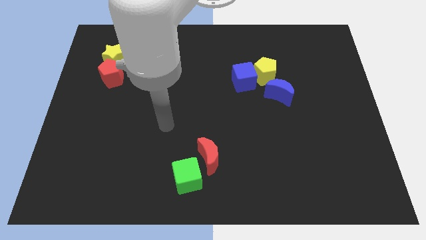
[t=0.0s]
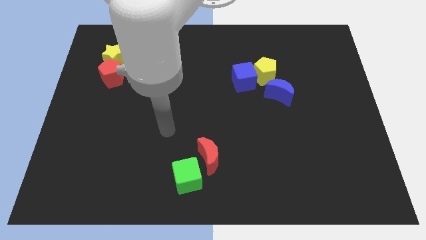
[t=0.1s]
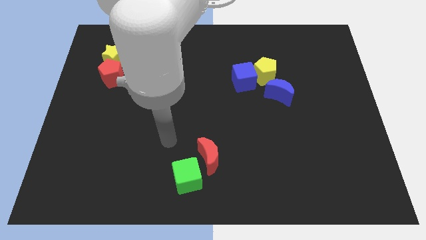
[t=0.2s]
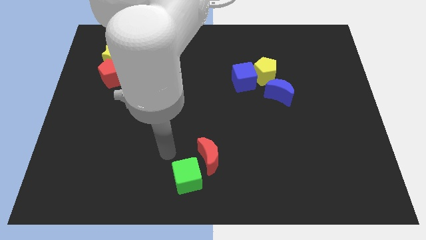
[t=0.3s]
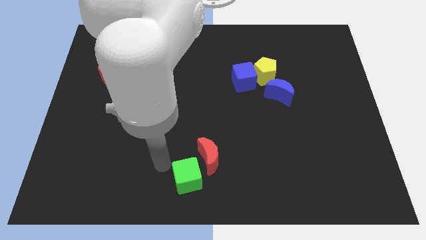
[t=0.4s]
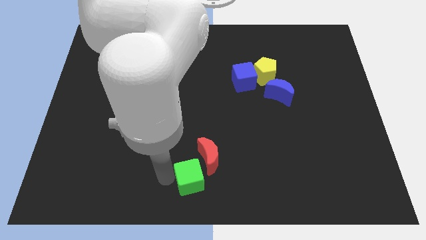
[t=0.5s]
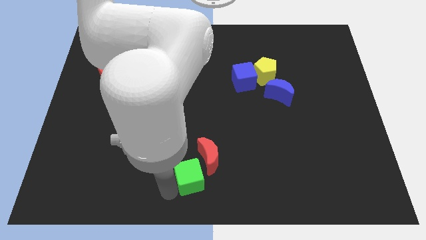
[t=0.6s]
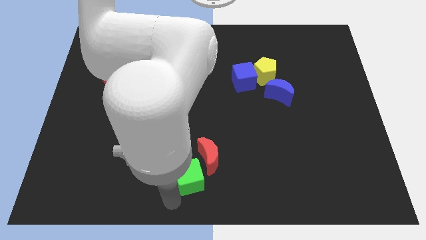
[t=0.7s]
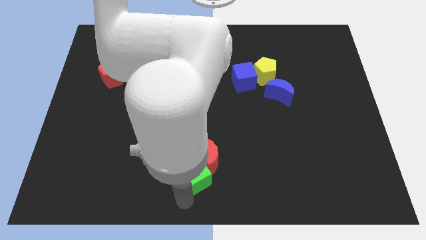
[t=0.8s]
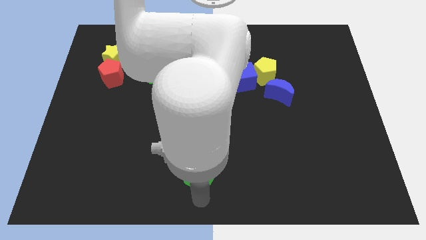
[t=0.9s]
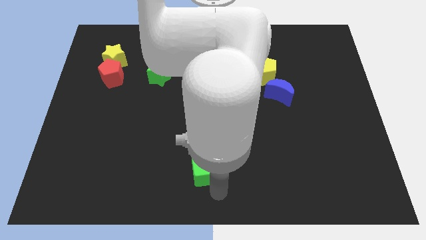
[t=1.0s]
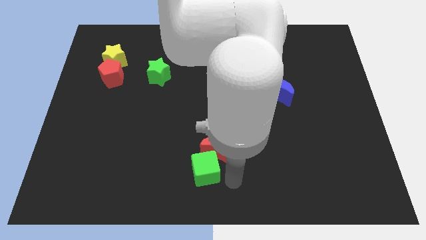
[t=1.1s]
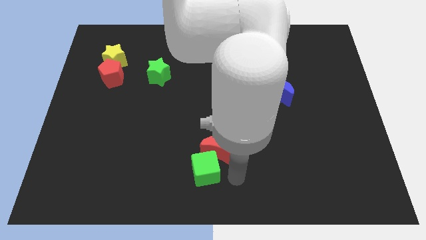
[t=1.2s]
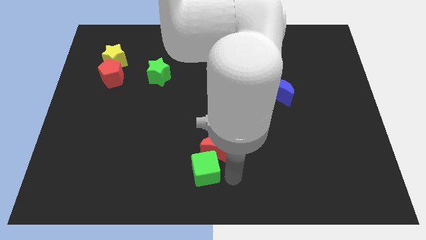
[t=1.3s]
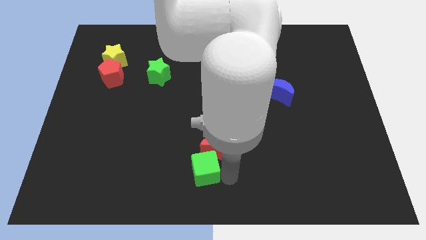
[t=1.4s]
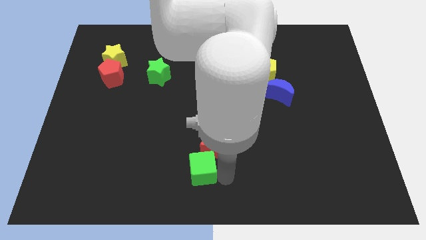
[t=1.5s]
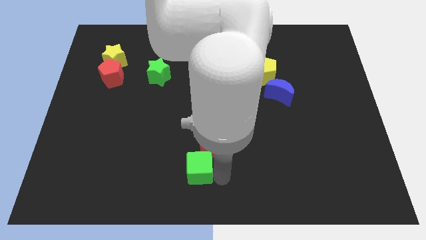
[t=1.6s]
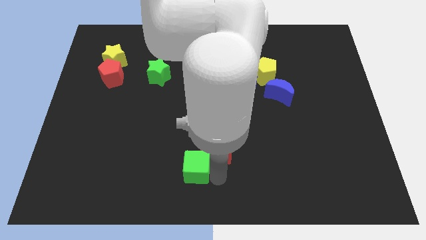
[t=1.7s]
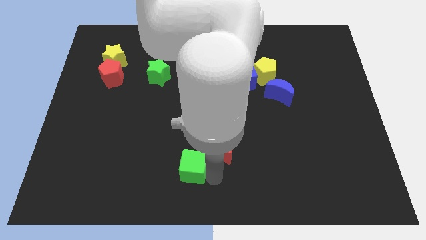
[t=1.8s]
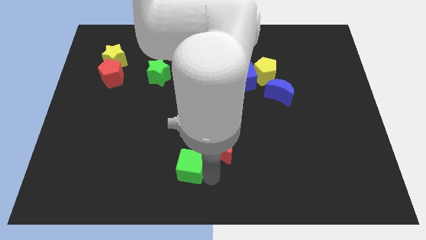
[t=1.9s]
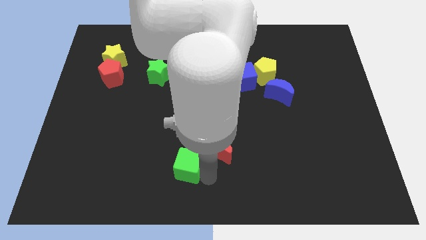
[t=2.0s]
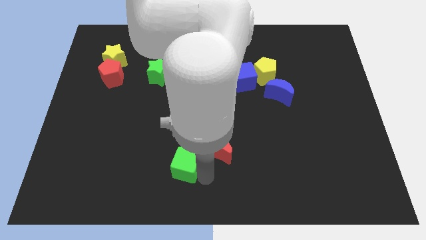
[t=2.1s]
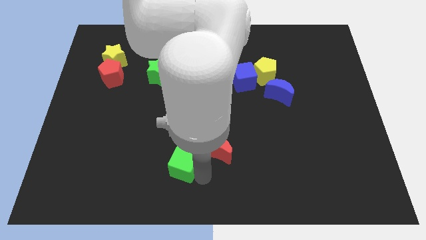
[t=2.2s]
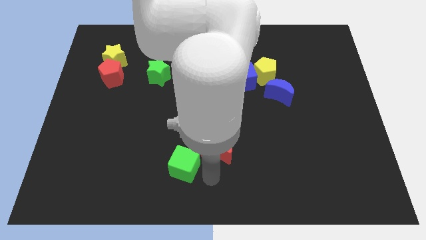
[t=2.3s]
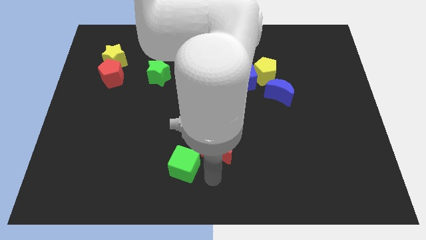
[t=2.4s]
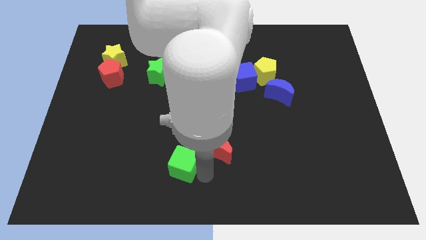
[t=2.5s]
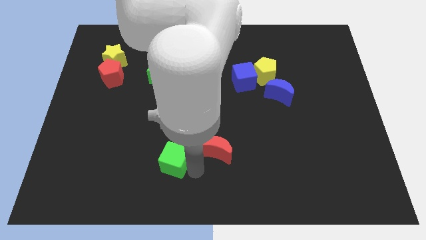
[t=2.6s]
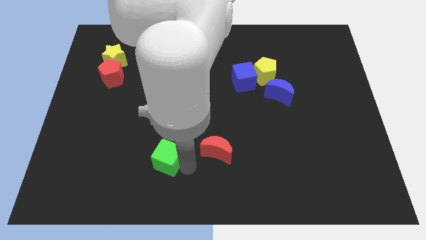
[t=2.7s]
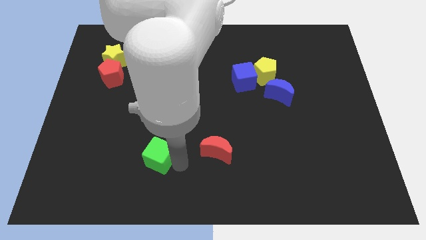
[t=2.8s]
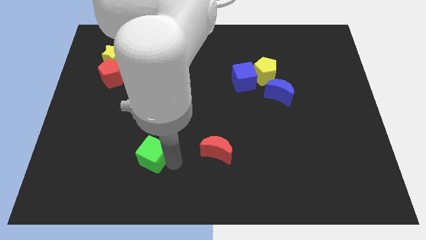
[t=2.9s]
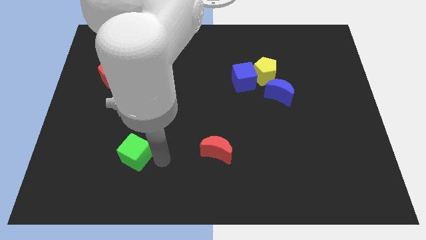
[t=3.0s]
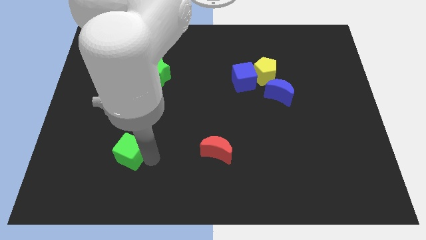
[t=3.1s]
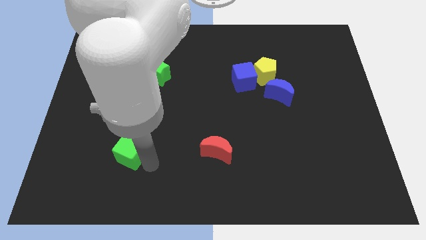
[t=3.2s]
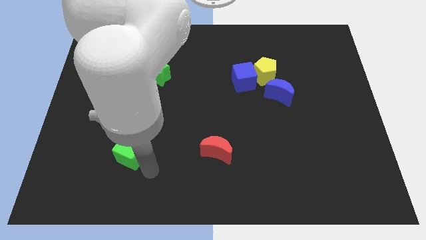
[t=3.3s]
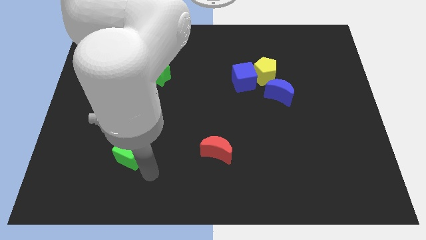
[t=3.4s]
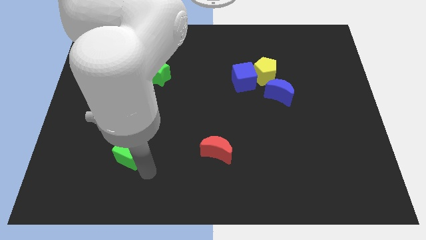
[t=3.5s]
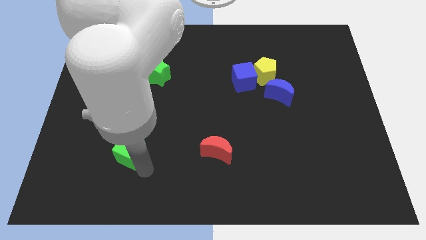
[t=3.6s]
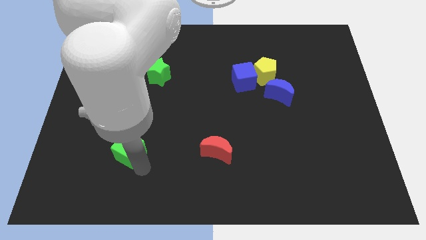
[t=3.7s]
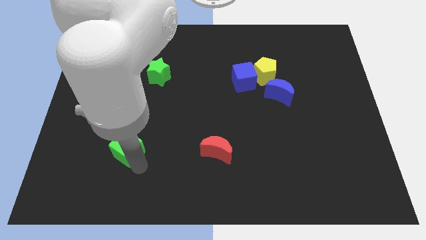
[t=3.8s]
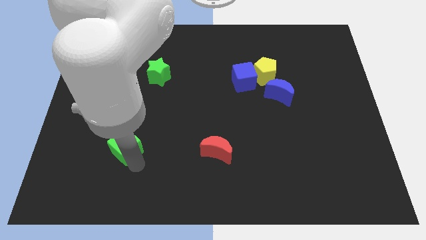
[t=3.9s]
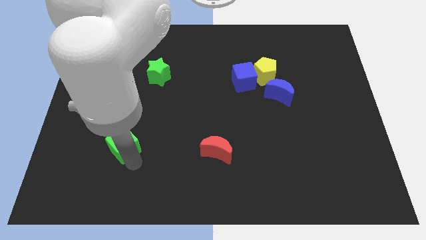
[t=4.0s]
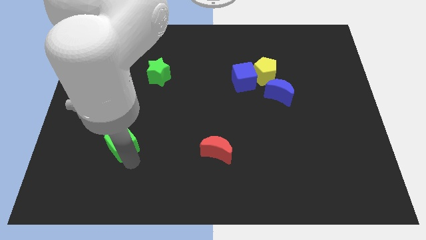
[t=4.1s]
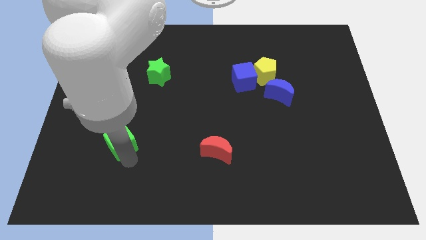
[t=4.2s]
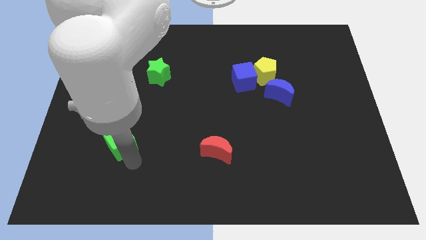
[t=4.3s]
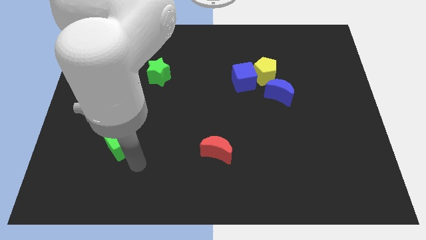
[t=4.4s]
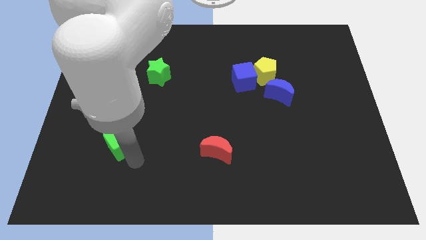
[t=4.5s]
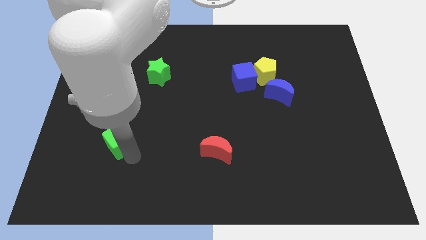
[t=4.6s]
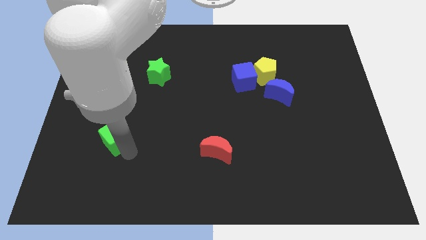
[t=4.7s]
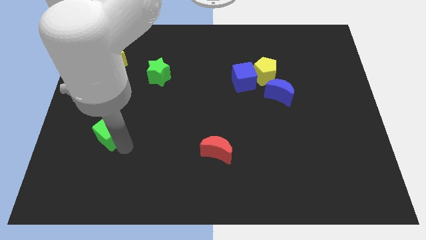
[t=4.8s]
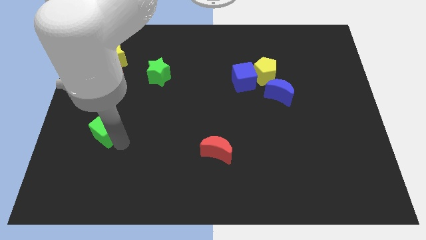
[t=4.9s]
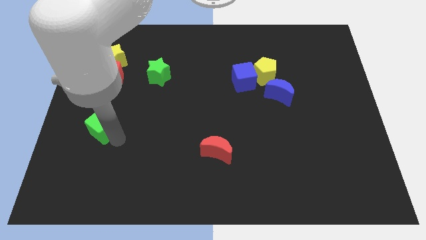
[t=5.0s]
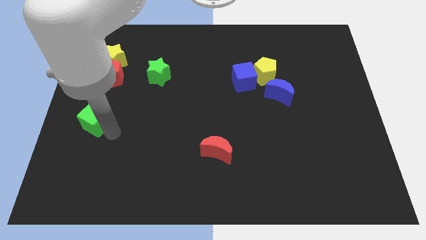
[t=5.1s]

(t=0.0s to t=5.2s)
put the green cube to the center left

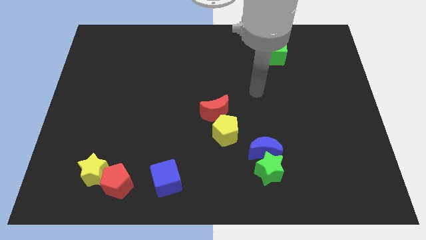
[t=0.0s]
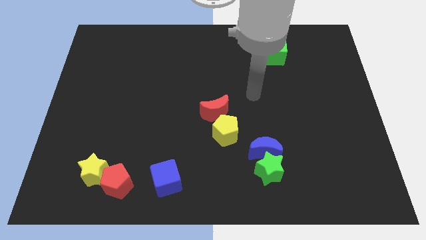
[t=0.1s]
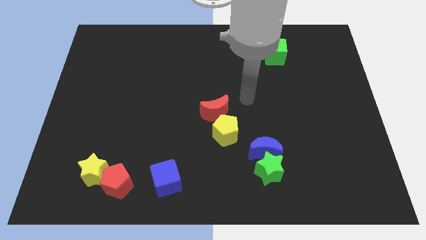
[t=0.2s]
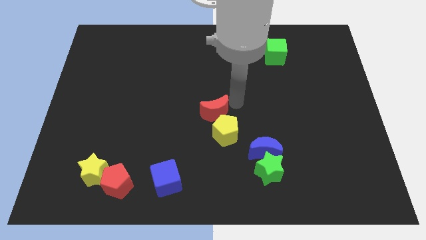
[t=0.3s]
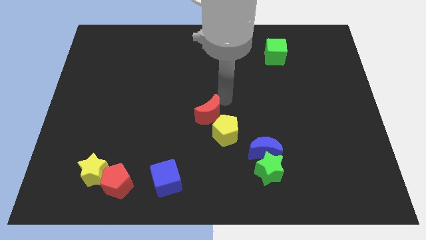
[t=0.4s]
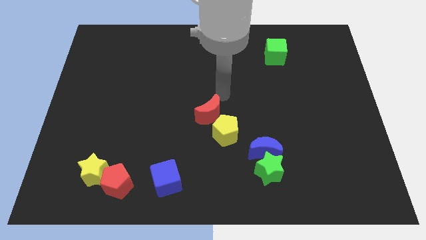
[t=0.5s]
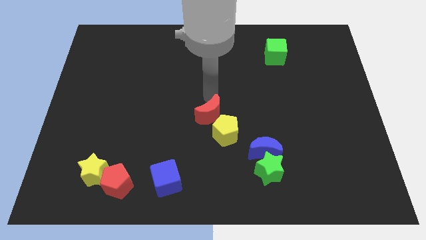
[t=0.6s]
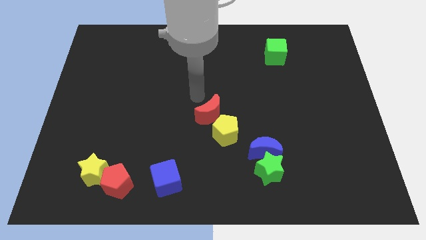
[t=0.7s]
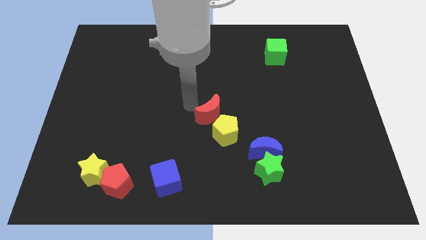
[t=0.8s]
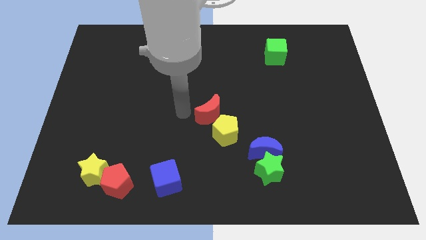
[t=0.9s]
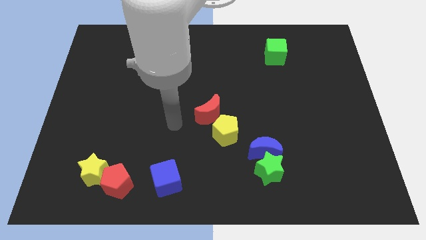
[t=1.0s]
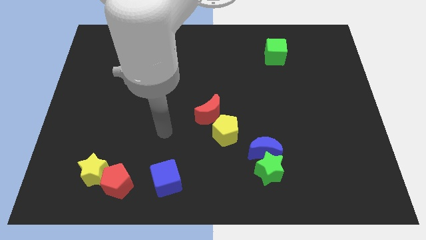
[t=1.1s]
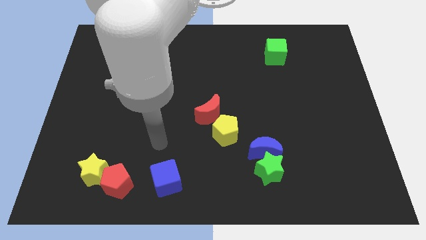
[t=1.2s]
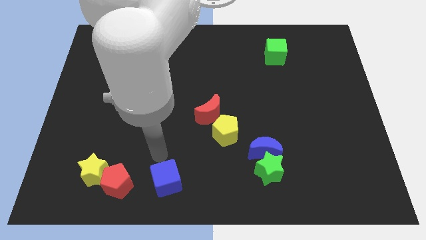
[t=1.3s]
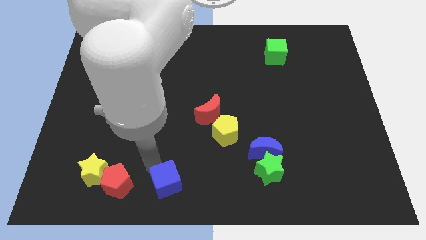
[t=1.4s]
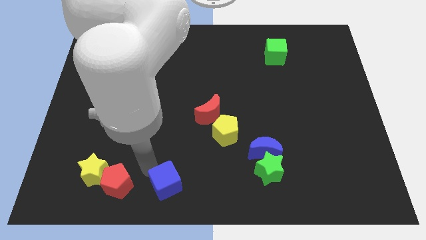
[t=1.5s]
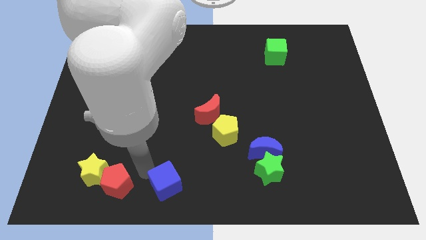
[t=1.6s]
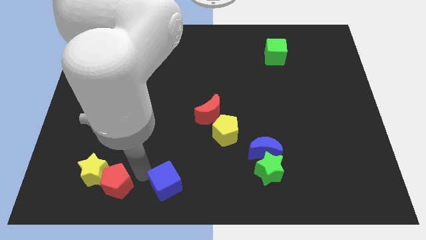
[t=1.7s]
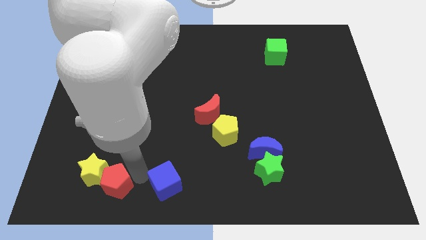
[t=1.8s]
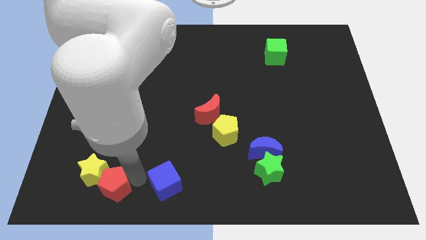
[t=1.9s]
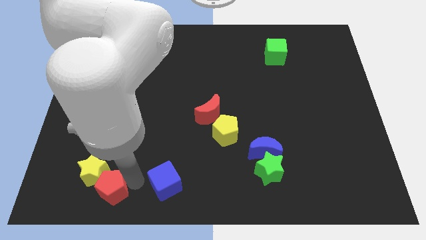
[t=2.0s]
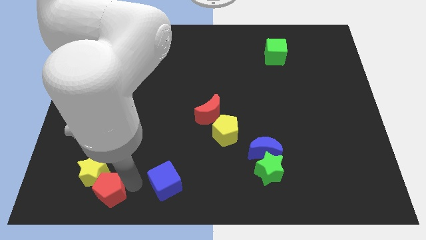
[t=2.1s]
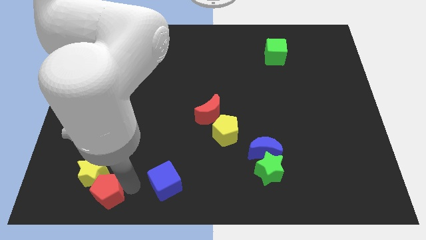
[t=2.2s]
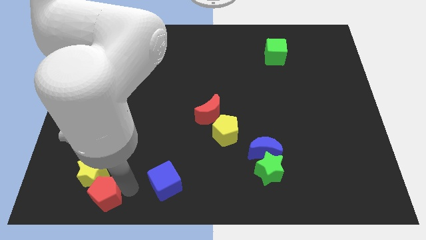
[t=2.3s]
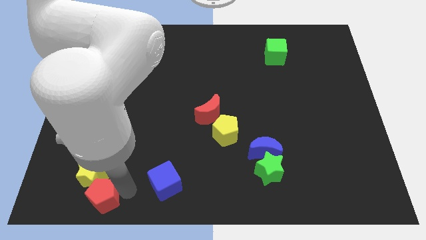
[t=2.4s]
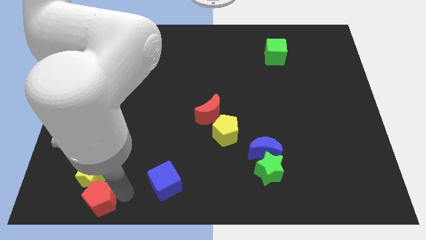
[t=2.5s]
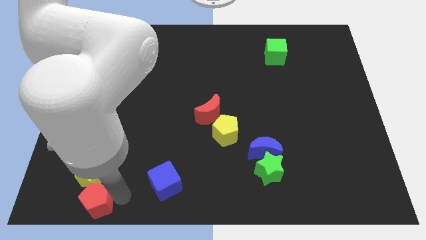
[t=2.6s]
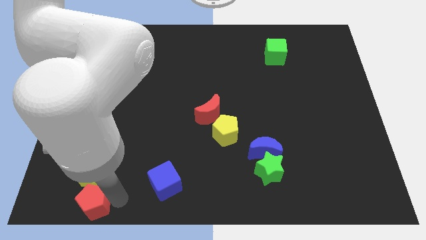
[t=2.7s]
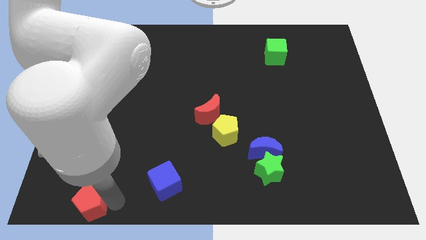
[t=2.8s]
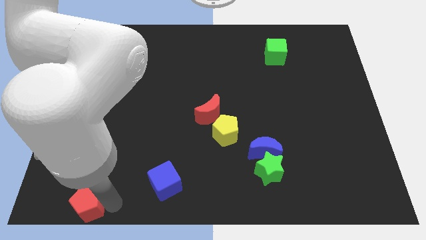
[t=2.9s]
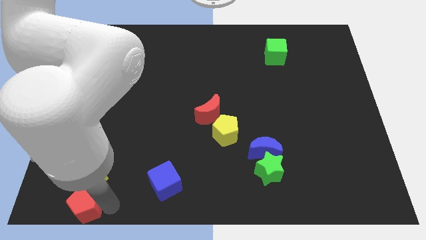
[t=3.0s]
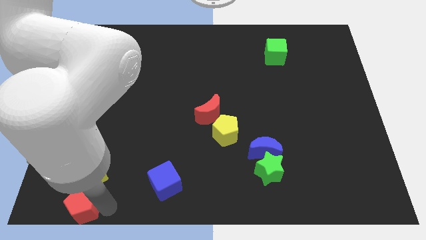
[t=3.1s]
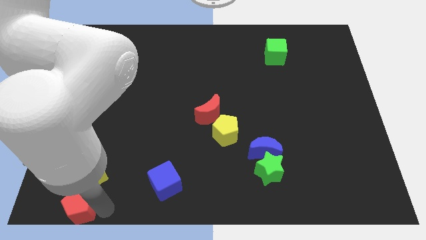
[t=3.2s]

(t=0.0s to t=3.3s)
slide the red pentagon to the bottom left corner
